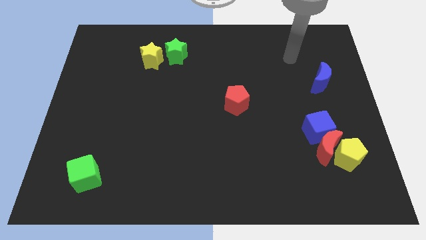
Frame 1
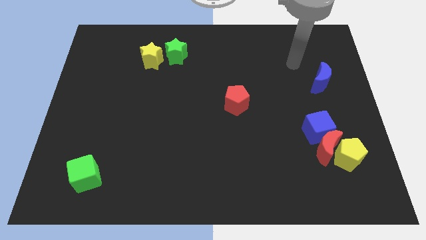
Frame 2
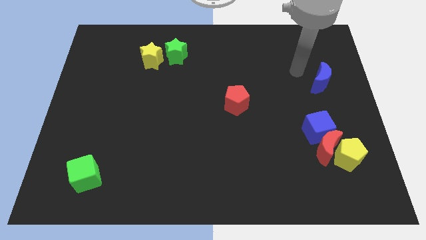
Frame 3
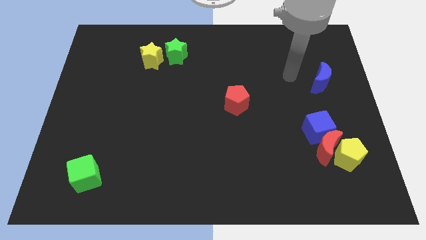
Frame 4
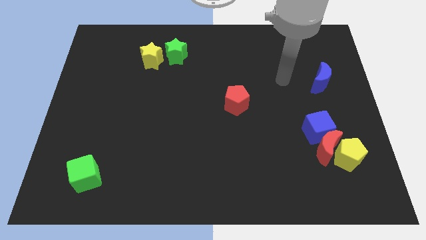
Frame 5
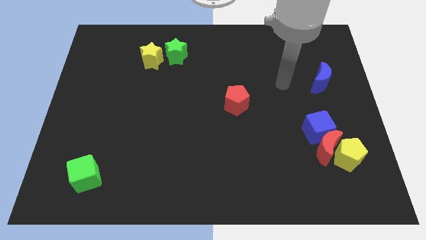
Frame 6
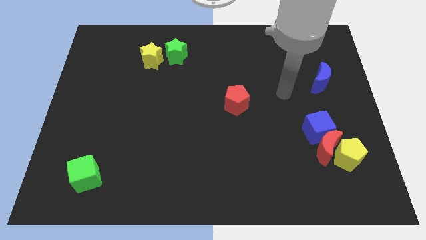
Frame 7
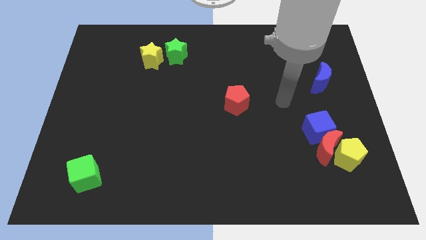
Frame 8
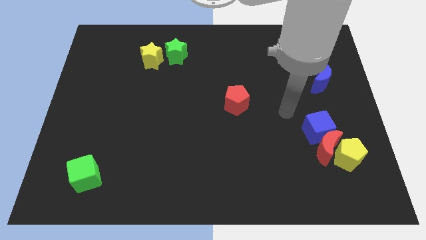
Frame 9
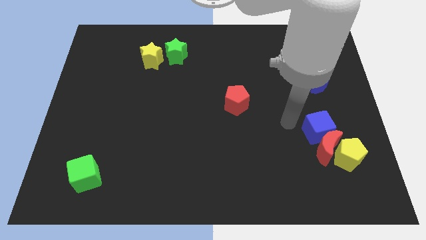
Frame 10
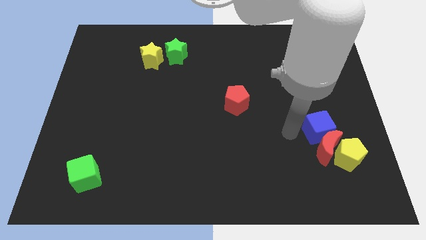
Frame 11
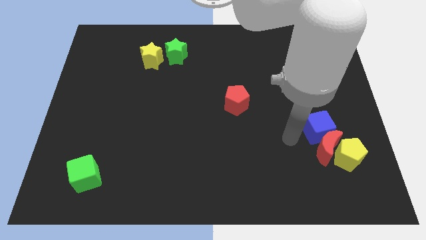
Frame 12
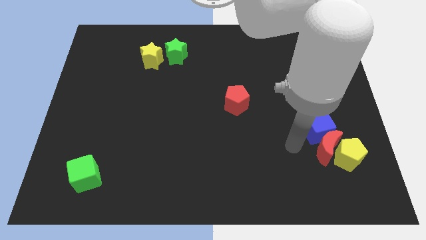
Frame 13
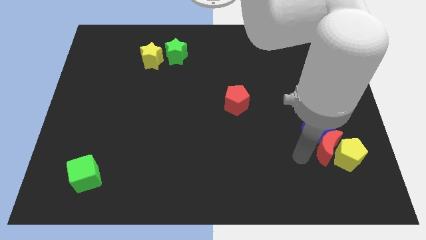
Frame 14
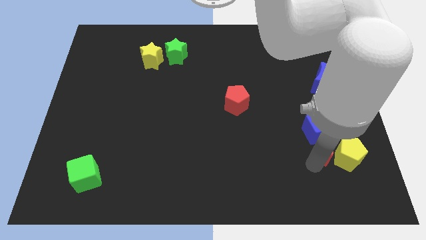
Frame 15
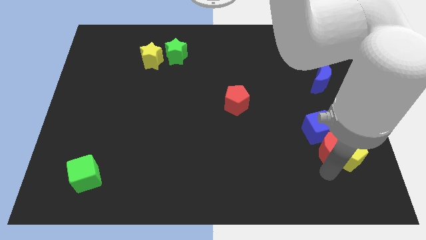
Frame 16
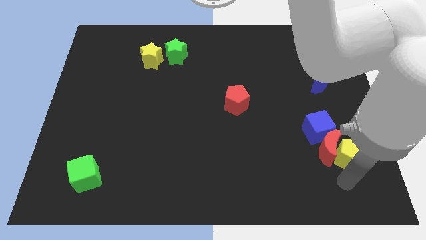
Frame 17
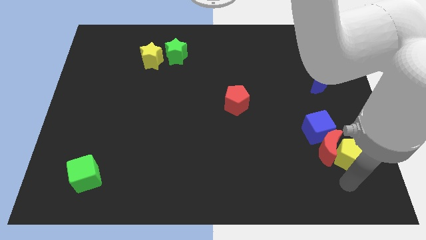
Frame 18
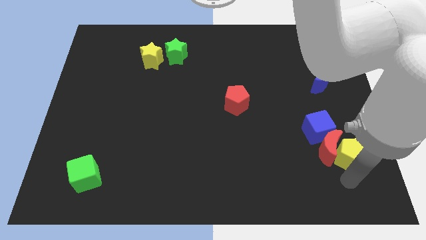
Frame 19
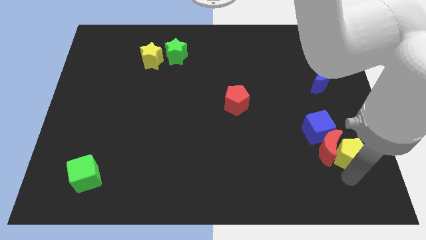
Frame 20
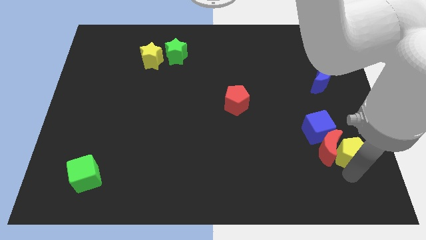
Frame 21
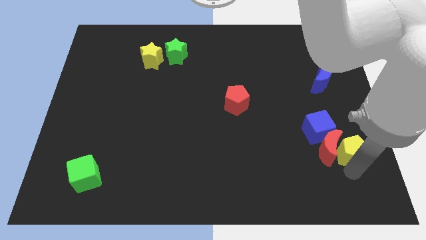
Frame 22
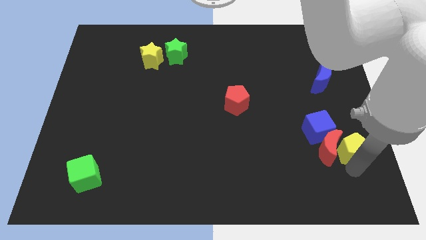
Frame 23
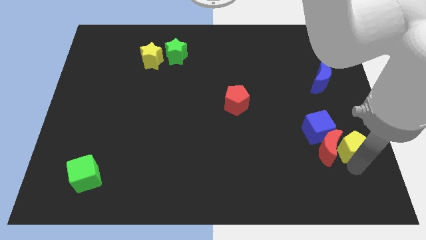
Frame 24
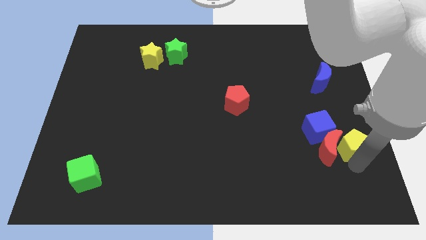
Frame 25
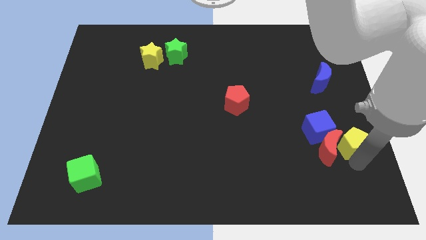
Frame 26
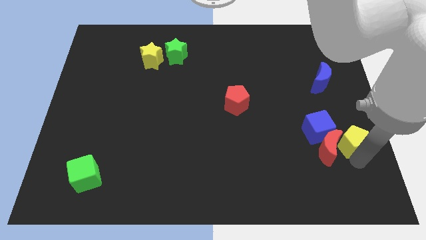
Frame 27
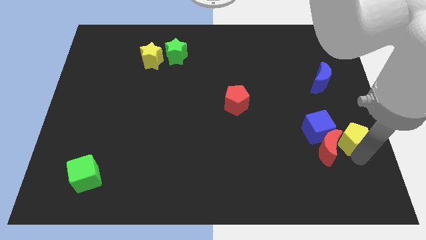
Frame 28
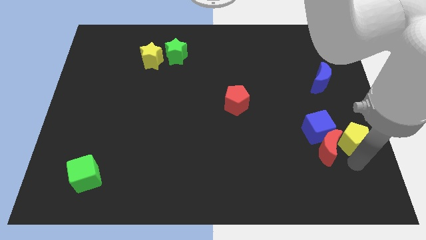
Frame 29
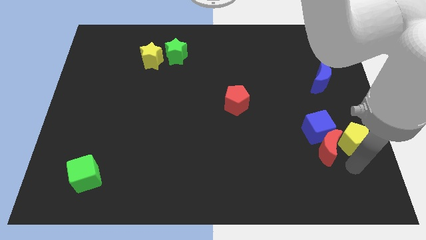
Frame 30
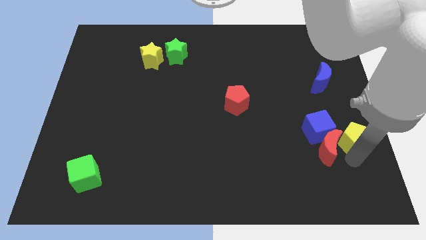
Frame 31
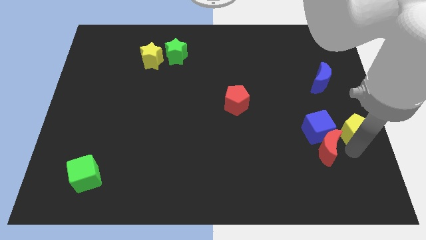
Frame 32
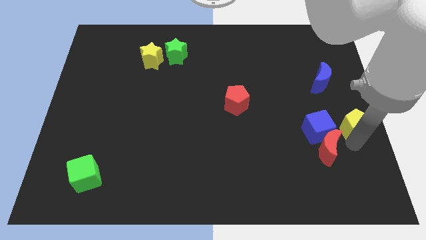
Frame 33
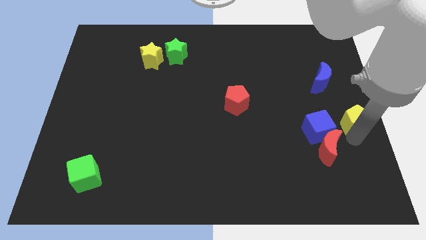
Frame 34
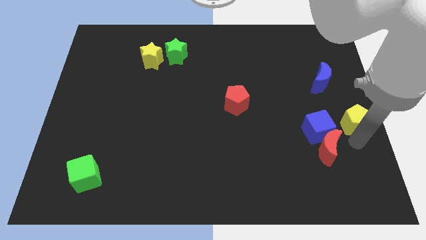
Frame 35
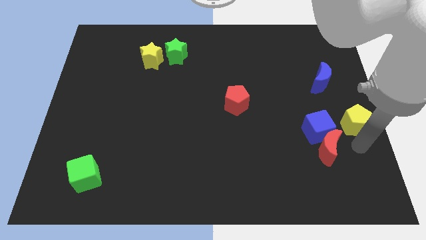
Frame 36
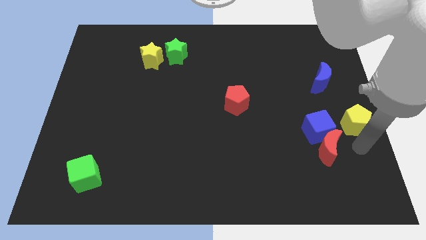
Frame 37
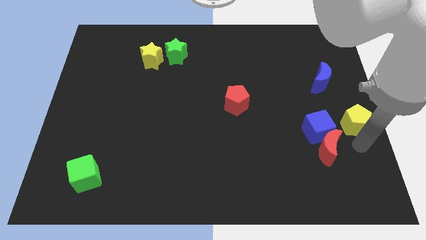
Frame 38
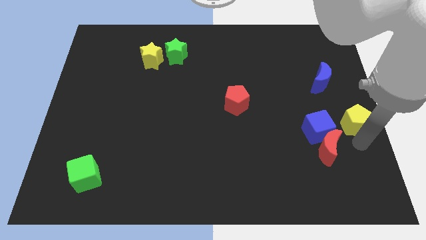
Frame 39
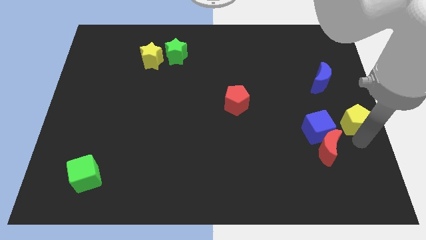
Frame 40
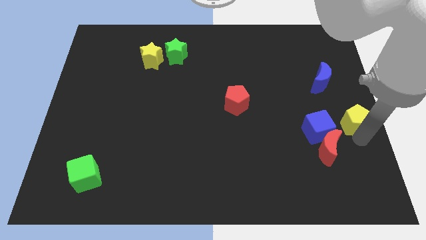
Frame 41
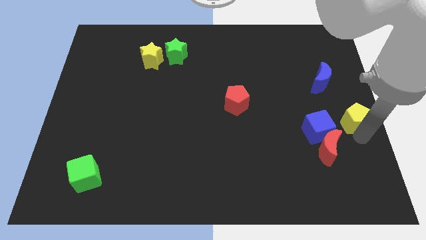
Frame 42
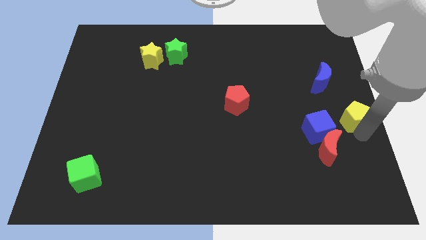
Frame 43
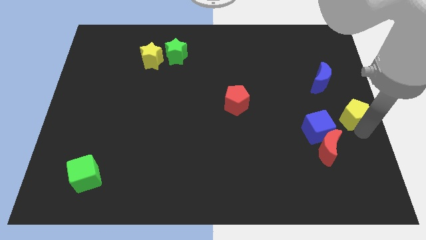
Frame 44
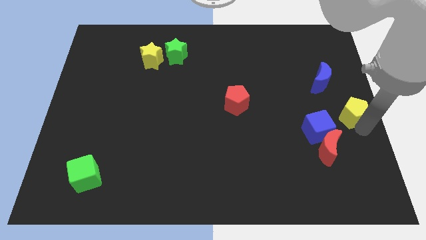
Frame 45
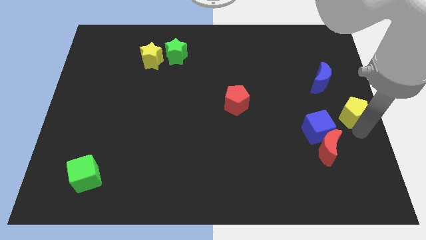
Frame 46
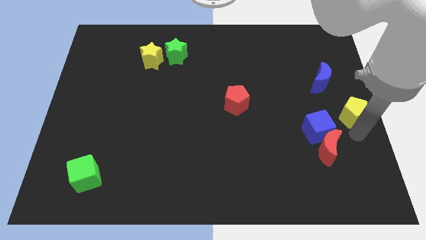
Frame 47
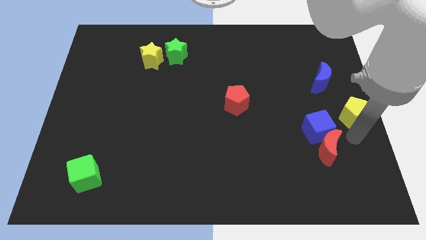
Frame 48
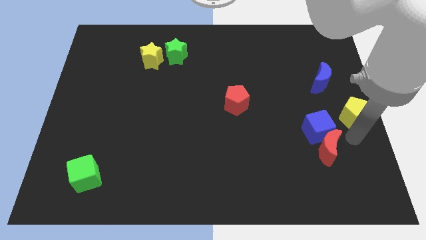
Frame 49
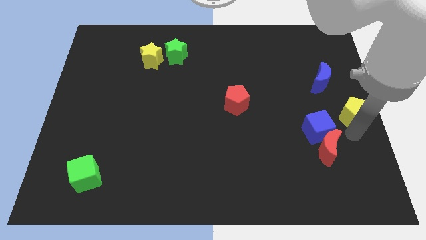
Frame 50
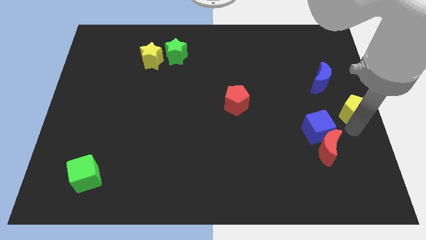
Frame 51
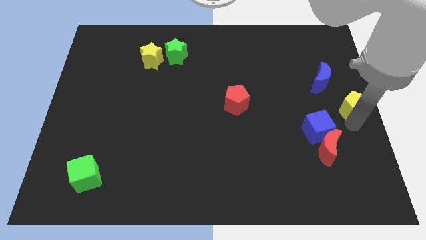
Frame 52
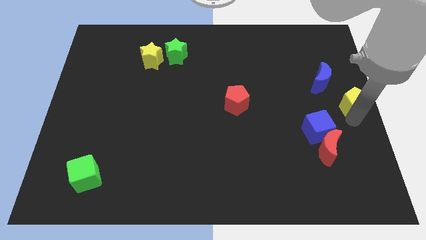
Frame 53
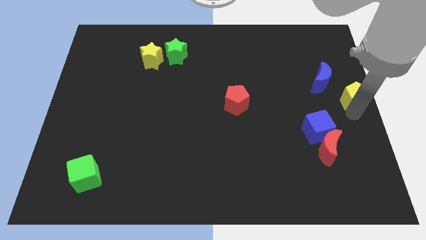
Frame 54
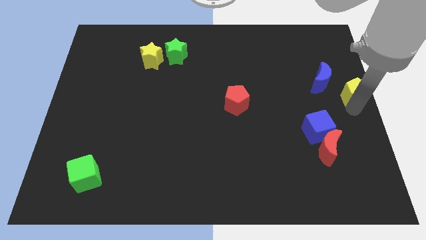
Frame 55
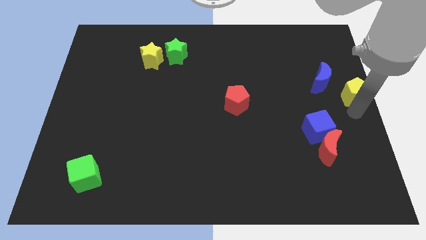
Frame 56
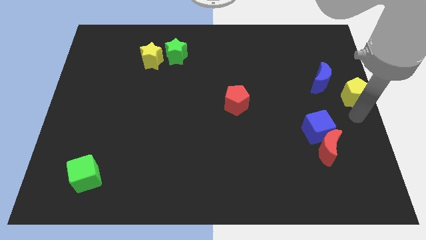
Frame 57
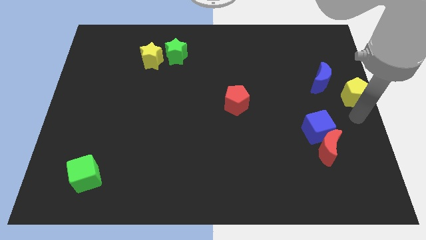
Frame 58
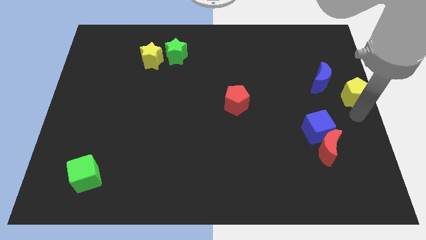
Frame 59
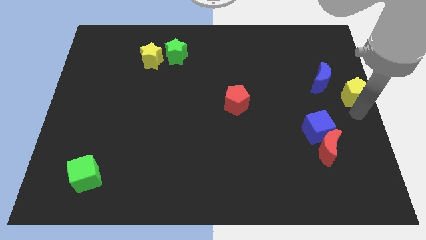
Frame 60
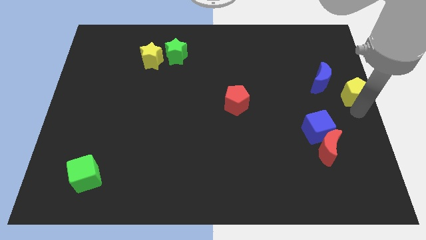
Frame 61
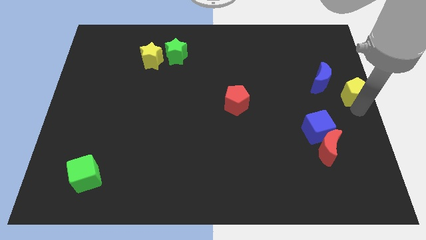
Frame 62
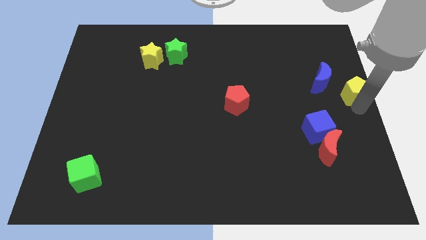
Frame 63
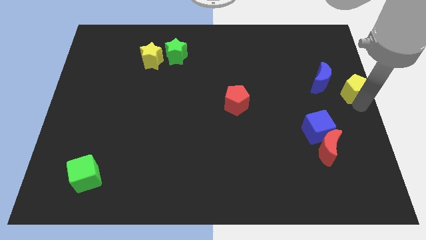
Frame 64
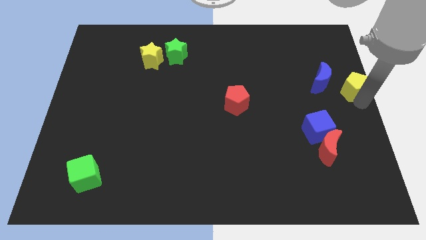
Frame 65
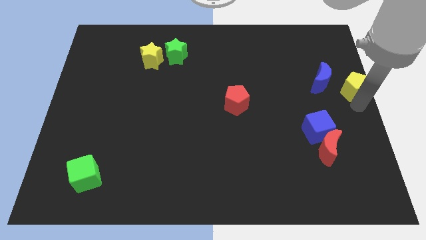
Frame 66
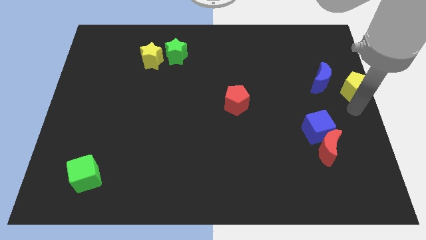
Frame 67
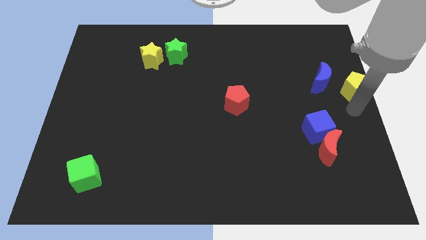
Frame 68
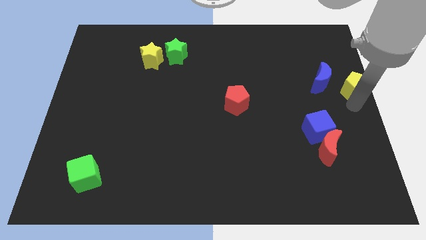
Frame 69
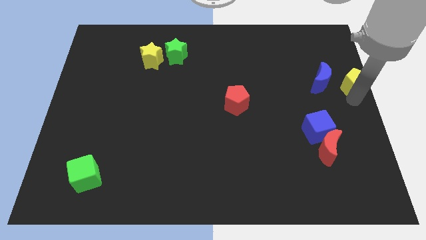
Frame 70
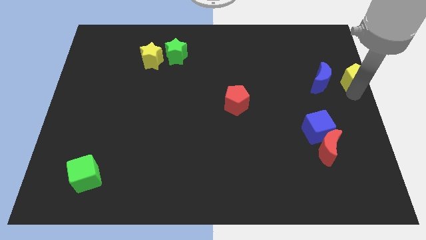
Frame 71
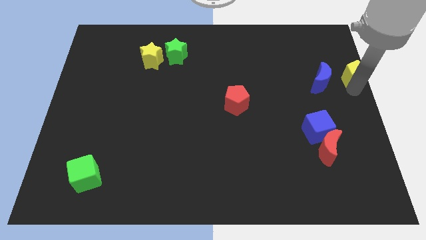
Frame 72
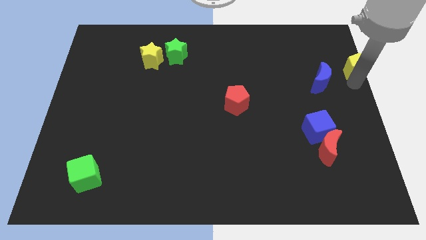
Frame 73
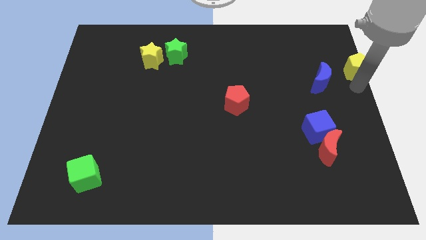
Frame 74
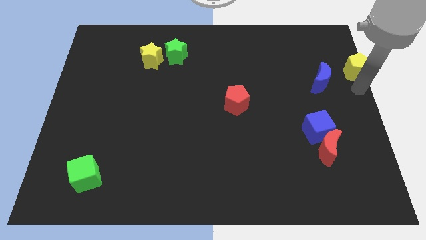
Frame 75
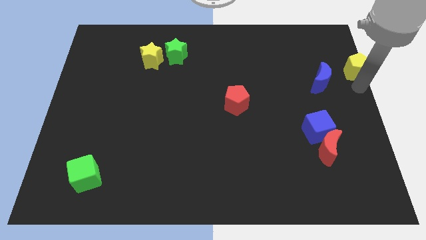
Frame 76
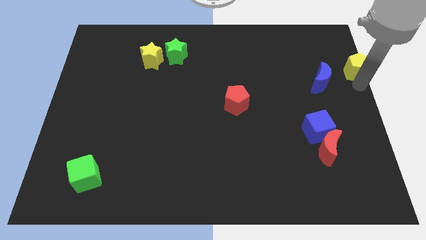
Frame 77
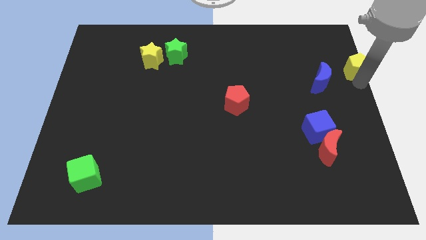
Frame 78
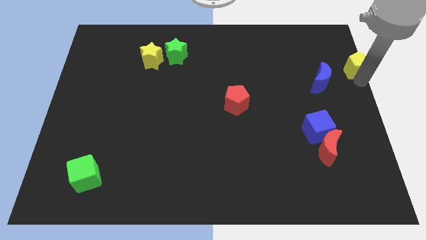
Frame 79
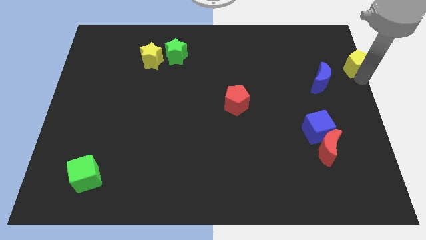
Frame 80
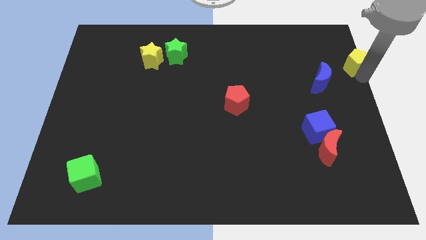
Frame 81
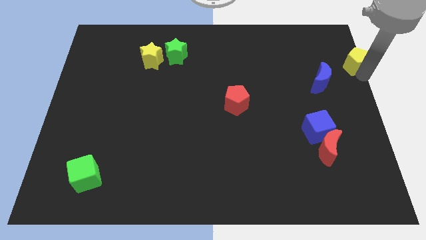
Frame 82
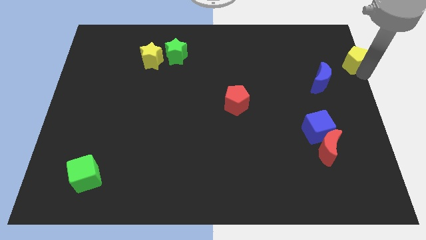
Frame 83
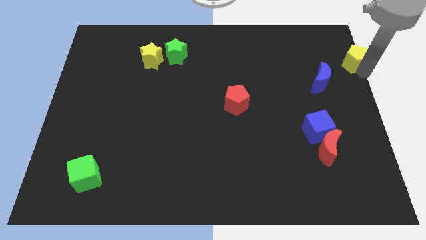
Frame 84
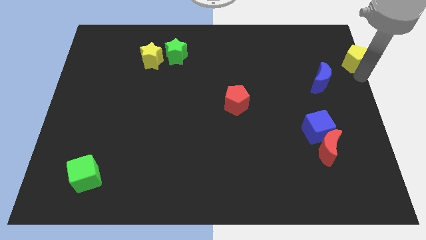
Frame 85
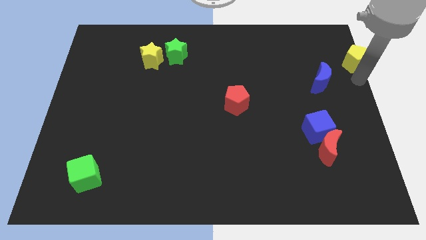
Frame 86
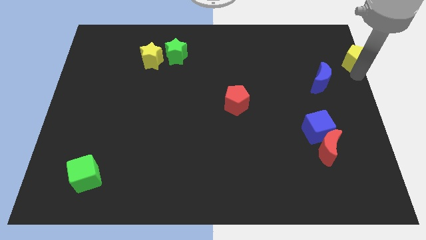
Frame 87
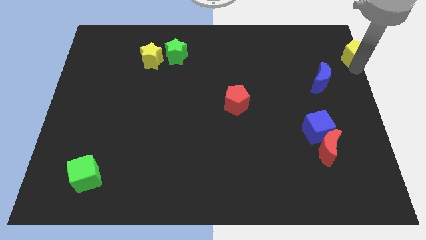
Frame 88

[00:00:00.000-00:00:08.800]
put the yellow pentagon to the top right corner
